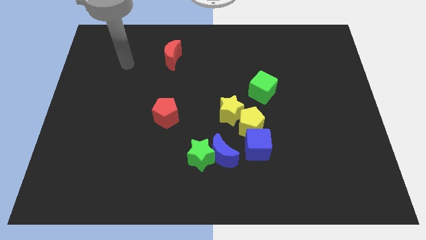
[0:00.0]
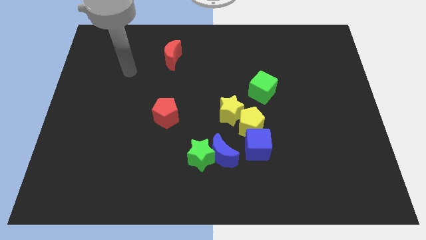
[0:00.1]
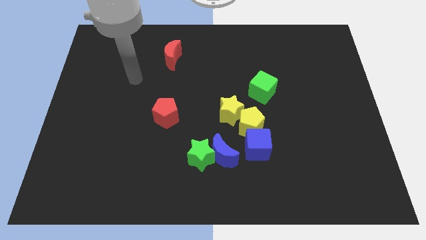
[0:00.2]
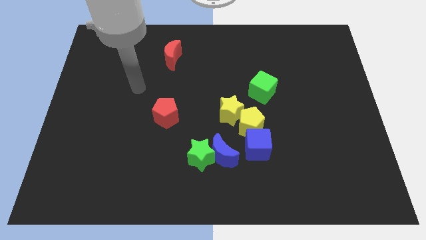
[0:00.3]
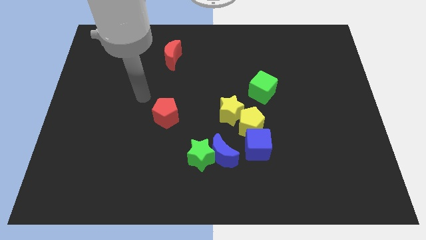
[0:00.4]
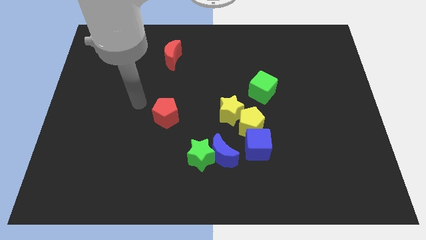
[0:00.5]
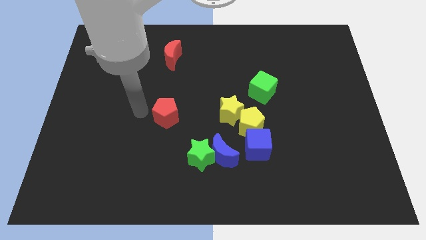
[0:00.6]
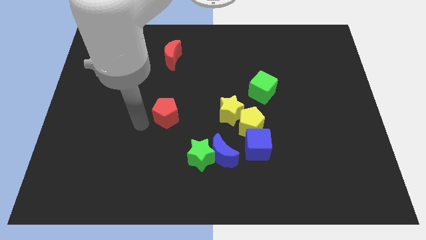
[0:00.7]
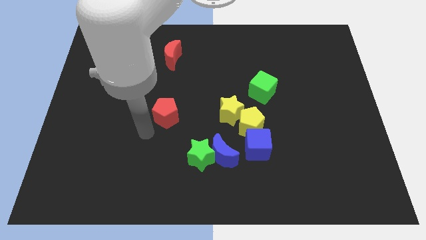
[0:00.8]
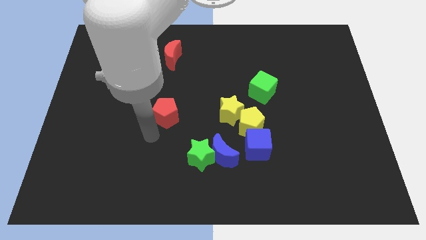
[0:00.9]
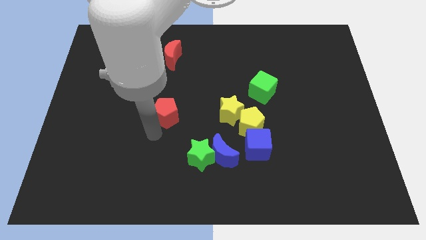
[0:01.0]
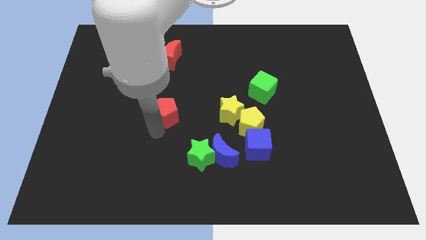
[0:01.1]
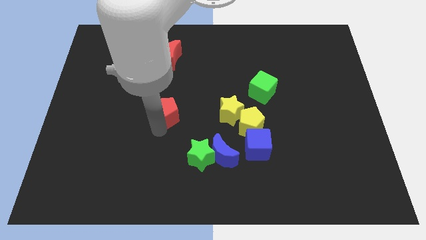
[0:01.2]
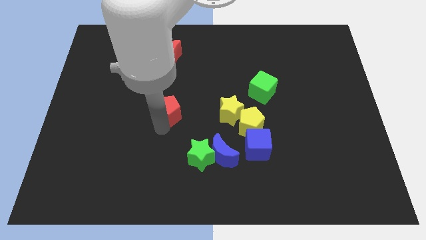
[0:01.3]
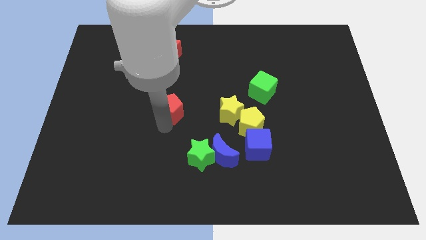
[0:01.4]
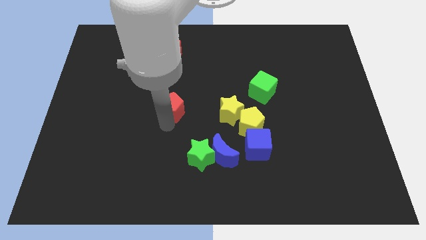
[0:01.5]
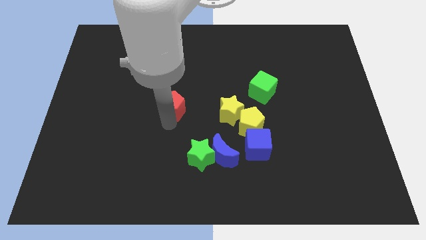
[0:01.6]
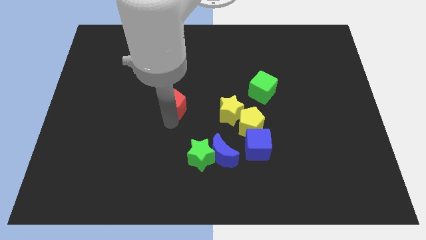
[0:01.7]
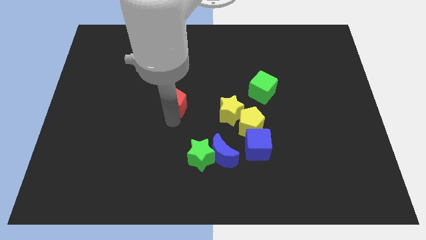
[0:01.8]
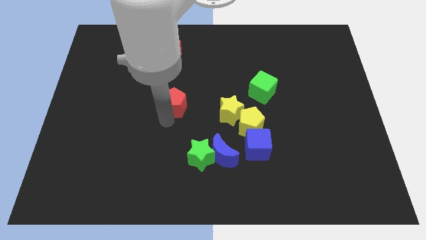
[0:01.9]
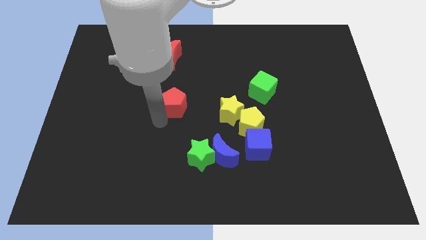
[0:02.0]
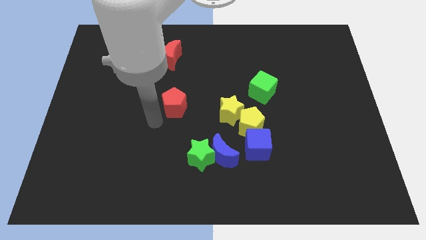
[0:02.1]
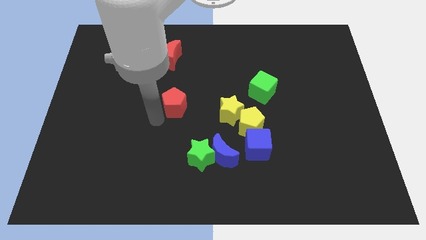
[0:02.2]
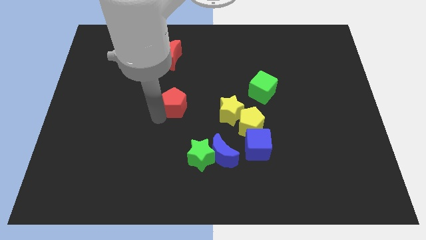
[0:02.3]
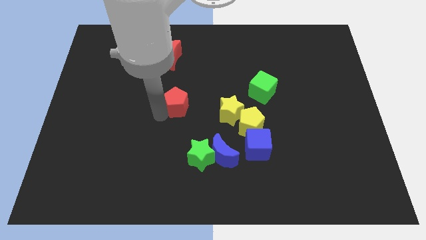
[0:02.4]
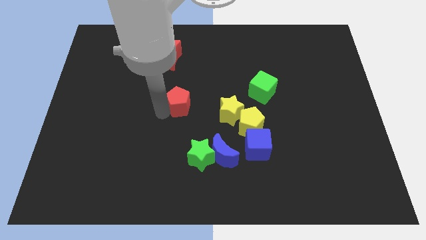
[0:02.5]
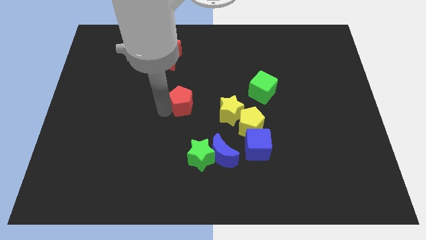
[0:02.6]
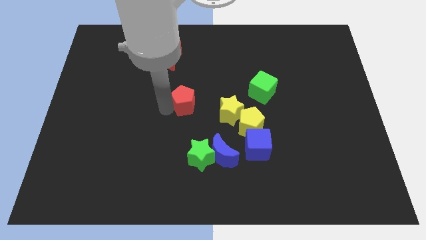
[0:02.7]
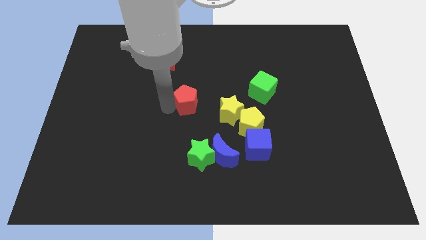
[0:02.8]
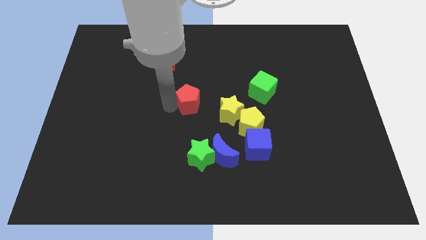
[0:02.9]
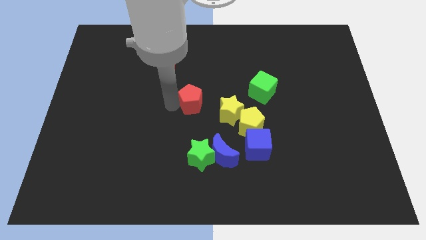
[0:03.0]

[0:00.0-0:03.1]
slide the red pentagon upwards and right diagonally somewhat

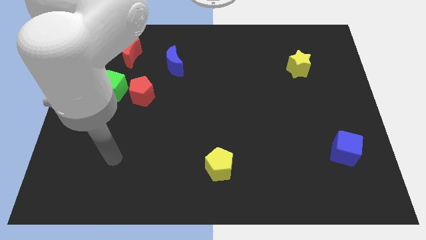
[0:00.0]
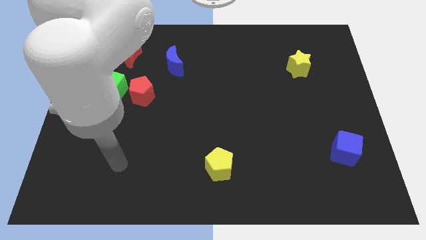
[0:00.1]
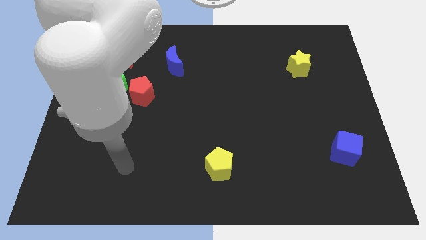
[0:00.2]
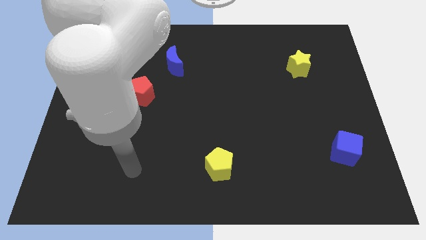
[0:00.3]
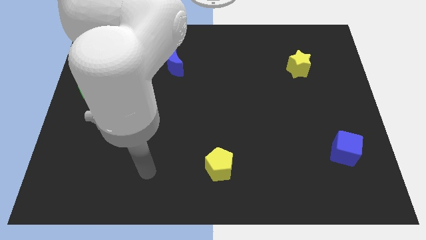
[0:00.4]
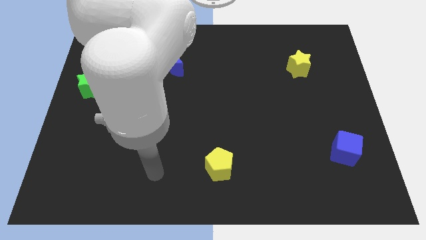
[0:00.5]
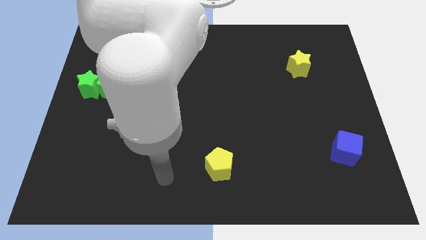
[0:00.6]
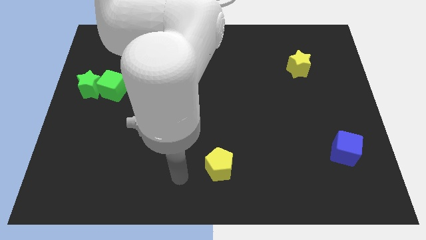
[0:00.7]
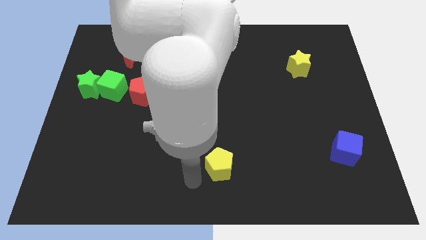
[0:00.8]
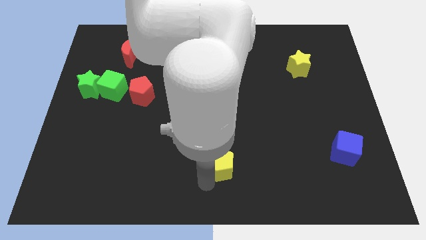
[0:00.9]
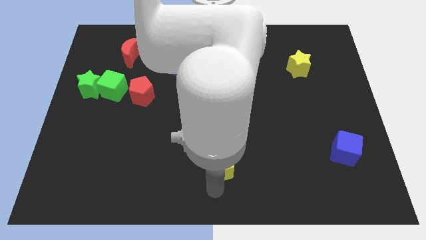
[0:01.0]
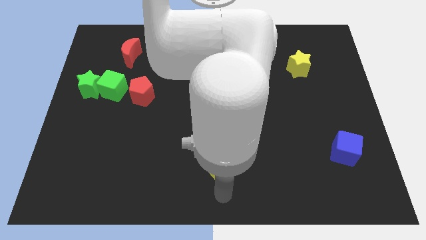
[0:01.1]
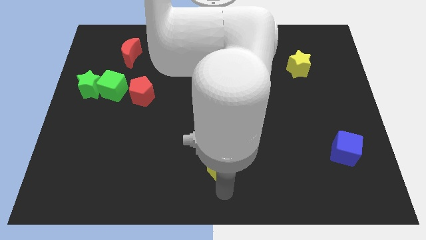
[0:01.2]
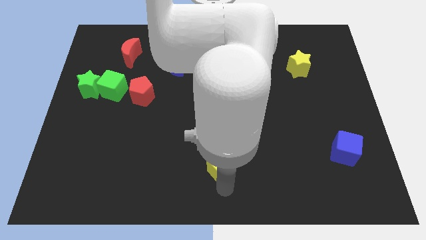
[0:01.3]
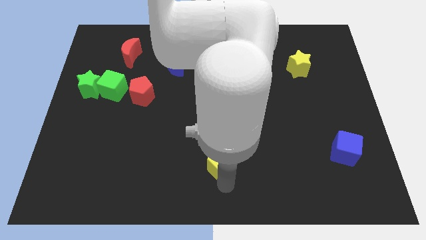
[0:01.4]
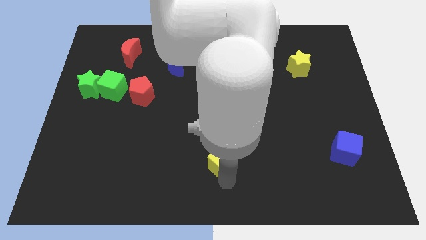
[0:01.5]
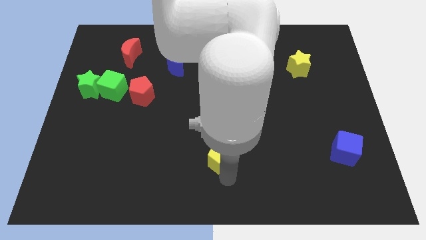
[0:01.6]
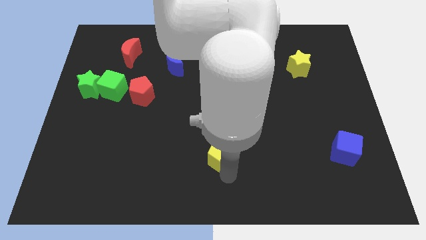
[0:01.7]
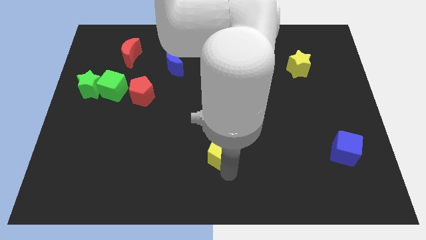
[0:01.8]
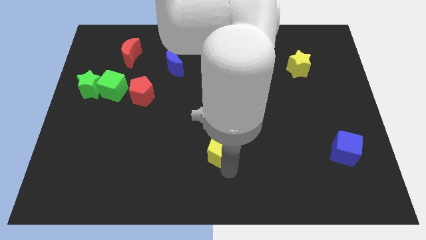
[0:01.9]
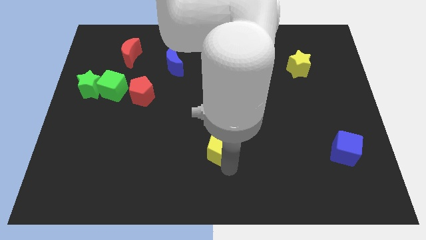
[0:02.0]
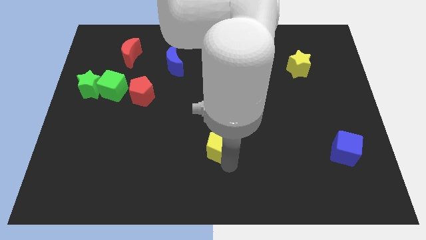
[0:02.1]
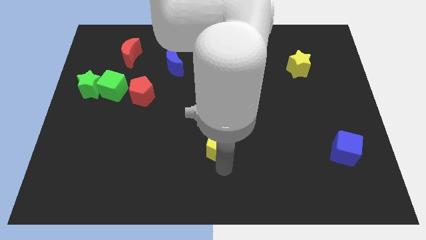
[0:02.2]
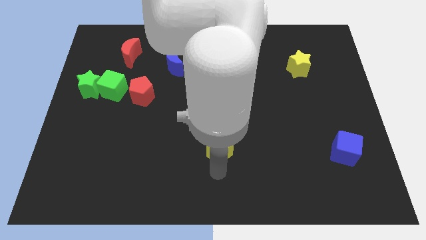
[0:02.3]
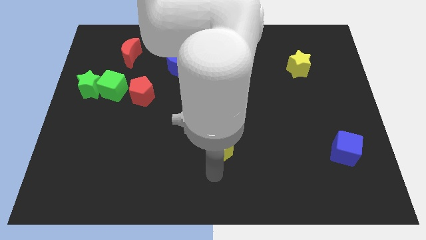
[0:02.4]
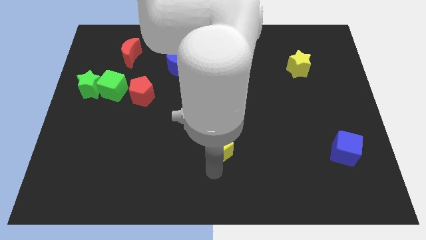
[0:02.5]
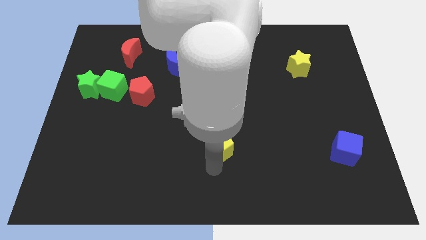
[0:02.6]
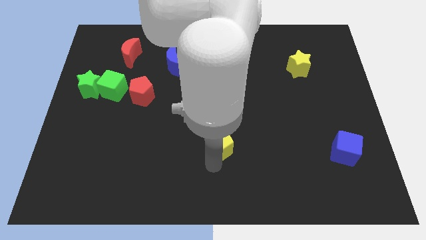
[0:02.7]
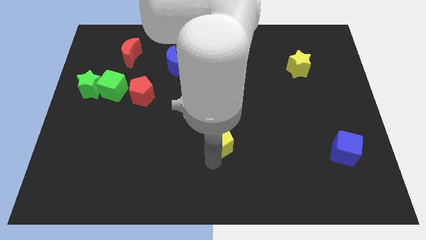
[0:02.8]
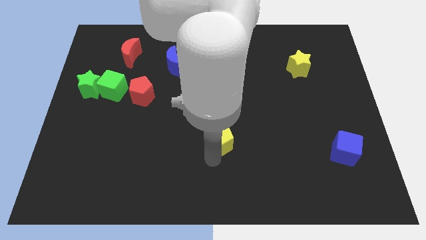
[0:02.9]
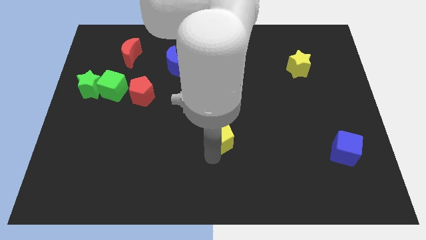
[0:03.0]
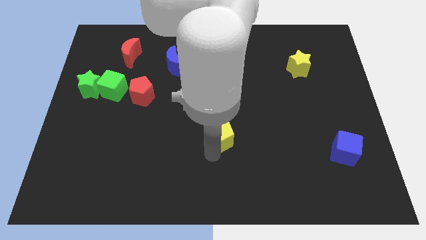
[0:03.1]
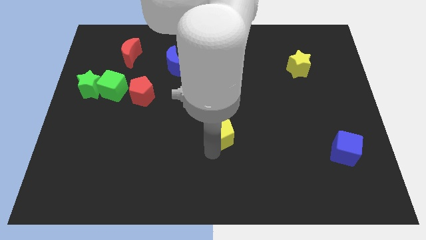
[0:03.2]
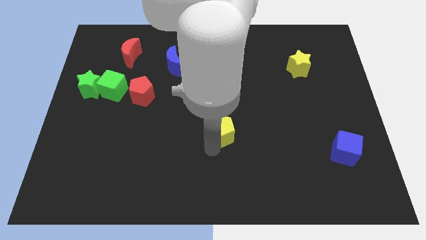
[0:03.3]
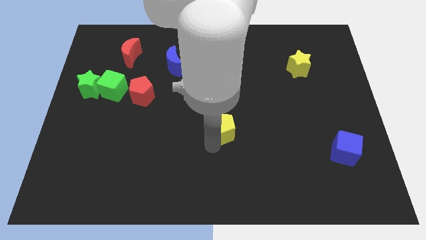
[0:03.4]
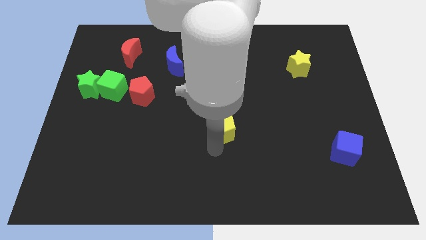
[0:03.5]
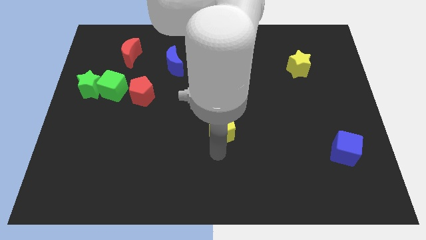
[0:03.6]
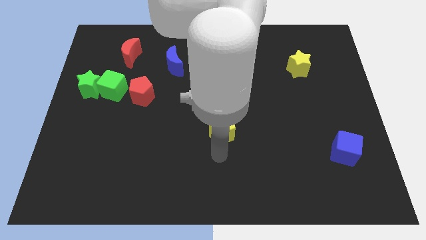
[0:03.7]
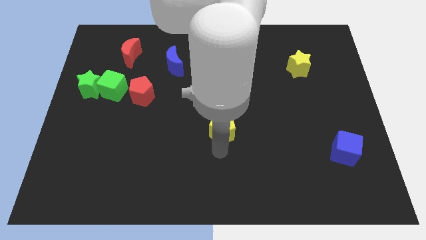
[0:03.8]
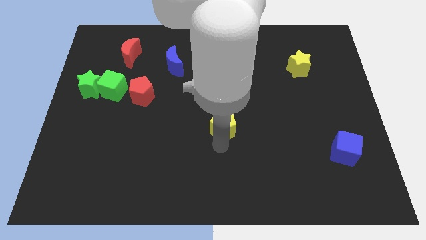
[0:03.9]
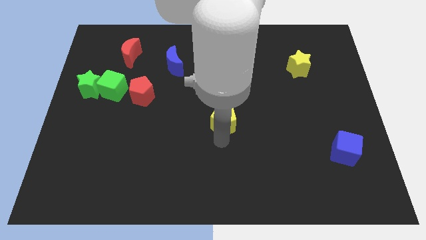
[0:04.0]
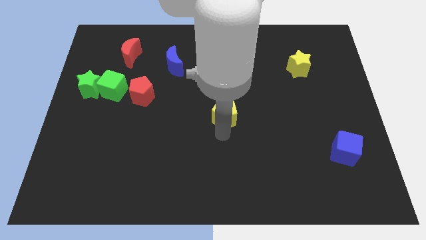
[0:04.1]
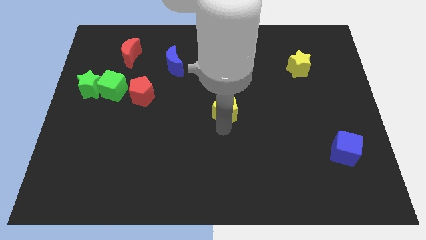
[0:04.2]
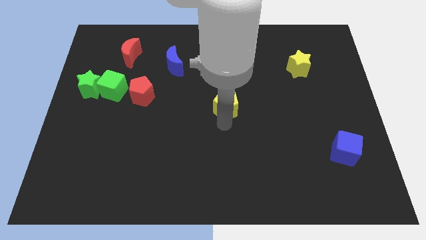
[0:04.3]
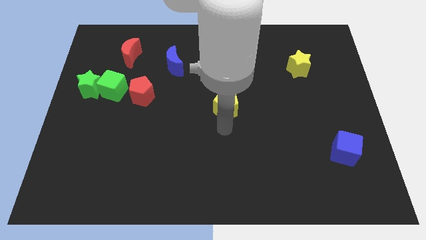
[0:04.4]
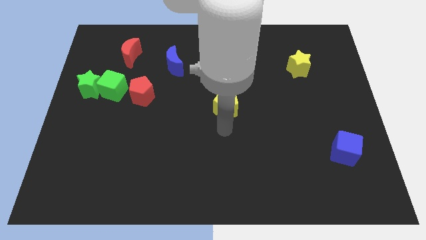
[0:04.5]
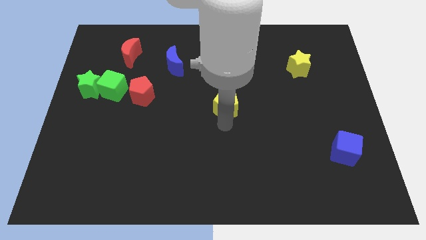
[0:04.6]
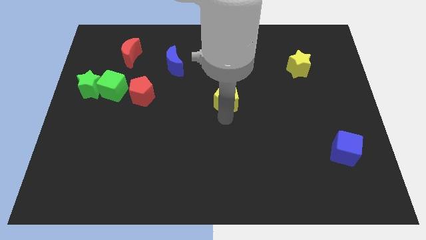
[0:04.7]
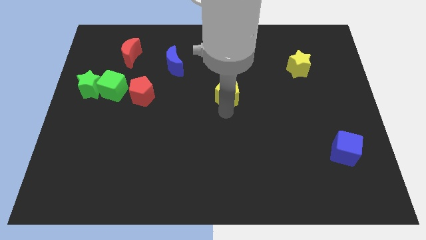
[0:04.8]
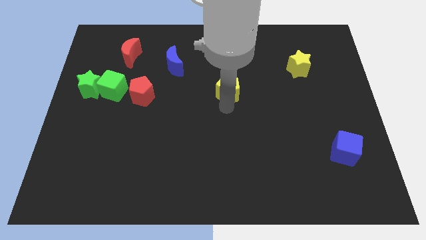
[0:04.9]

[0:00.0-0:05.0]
push the yellow pentagon up
